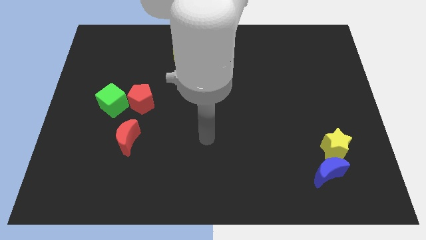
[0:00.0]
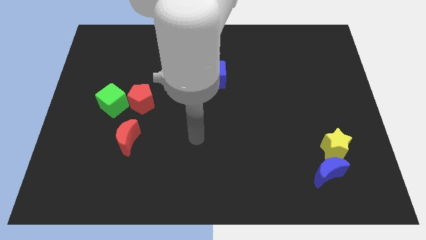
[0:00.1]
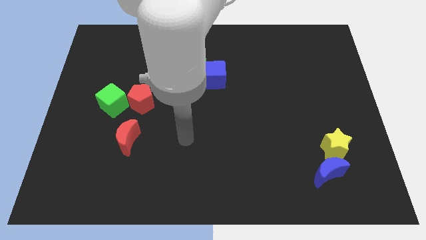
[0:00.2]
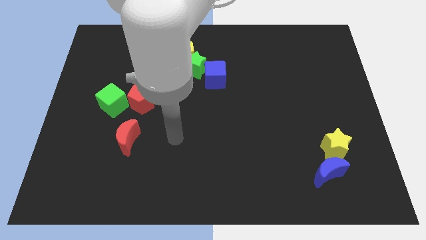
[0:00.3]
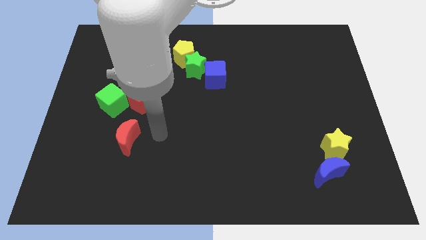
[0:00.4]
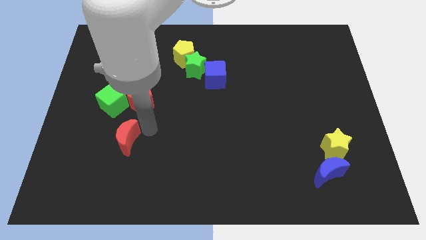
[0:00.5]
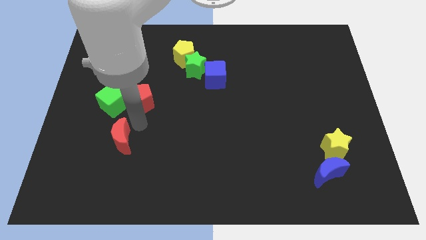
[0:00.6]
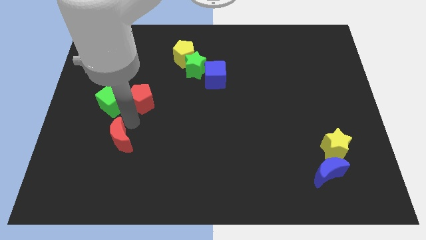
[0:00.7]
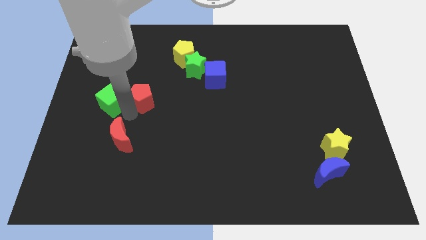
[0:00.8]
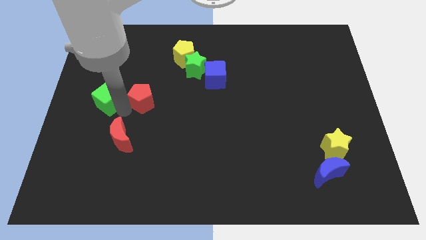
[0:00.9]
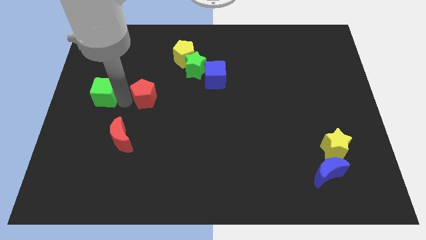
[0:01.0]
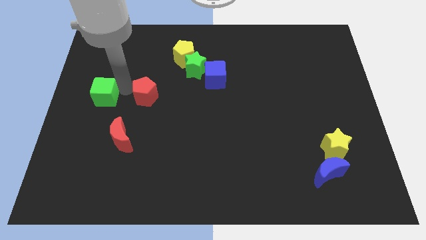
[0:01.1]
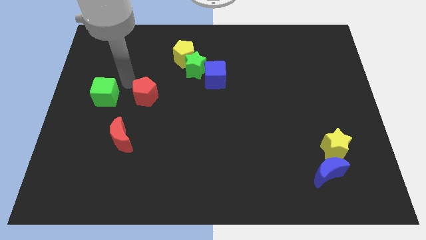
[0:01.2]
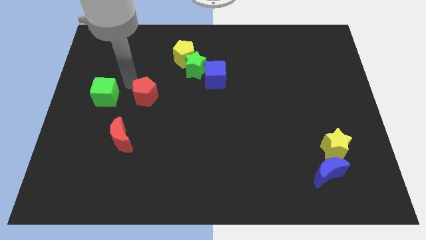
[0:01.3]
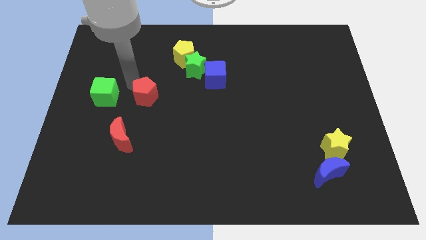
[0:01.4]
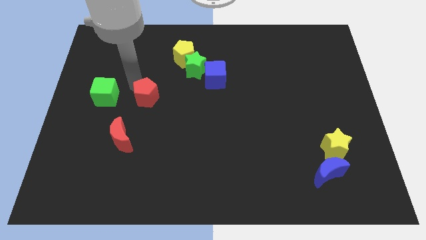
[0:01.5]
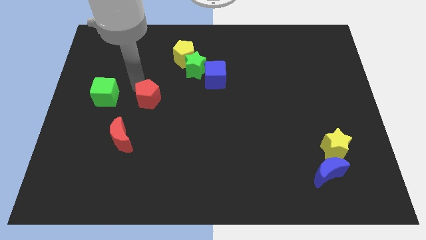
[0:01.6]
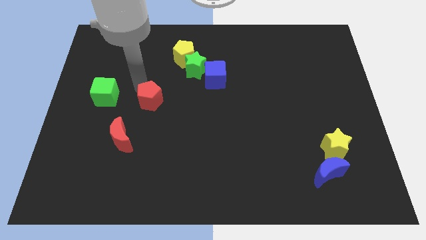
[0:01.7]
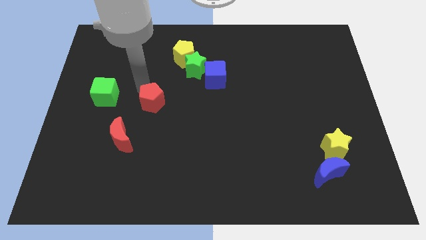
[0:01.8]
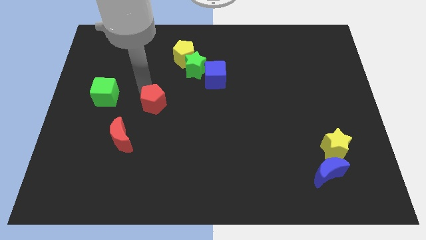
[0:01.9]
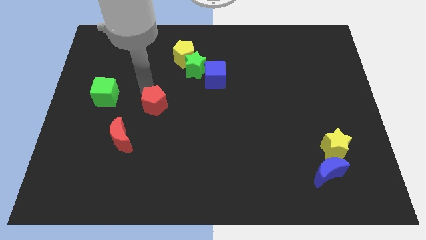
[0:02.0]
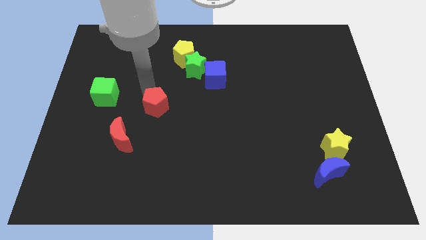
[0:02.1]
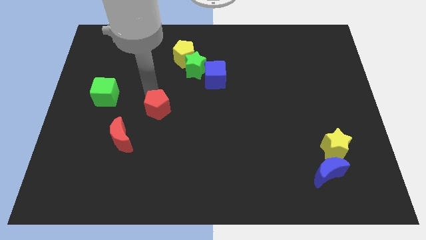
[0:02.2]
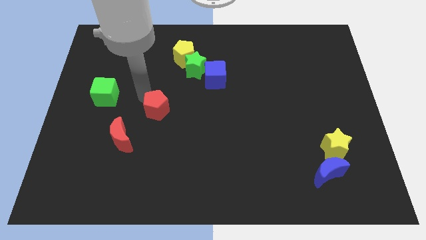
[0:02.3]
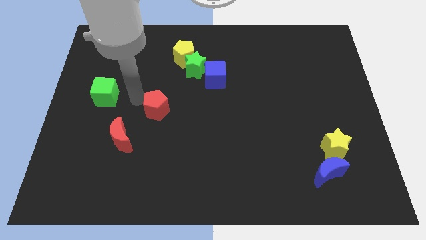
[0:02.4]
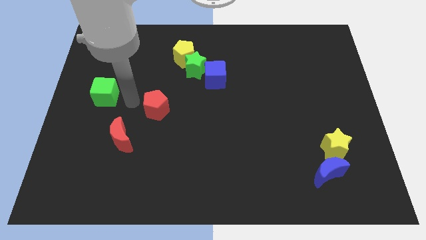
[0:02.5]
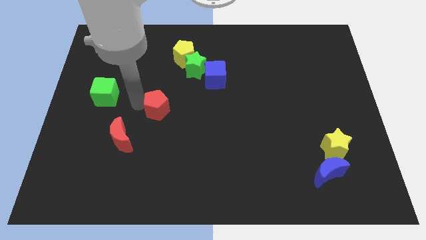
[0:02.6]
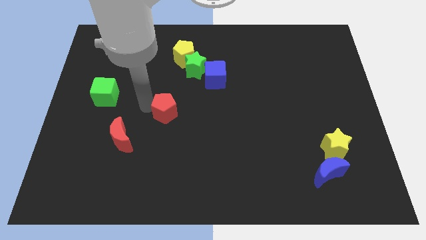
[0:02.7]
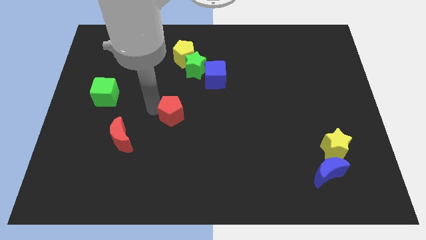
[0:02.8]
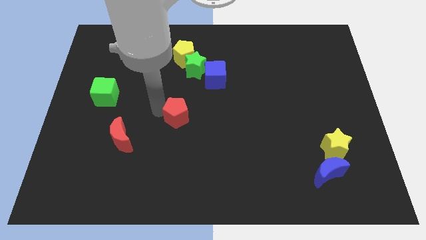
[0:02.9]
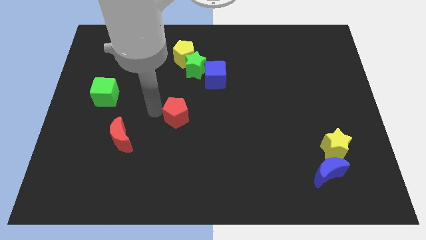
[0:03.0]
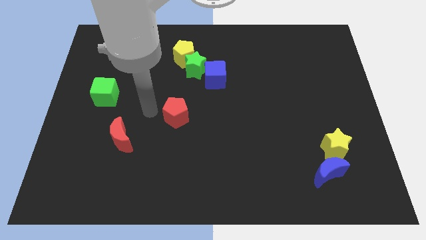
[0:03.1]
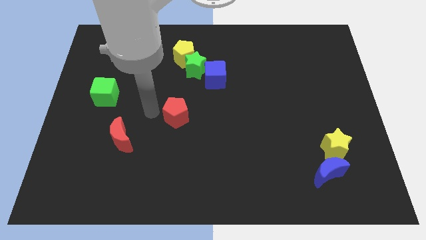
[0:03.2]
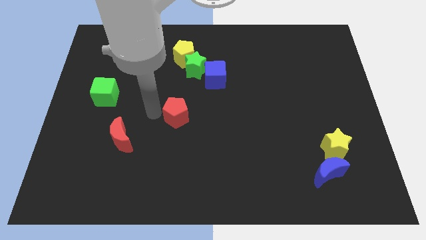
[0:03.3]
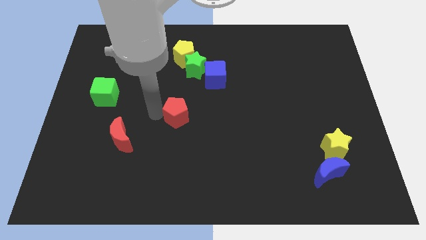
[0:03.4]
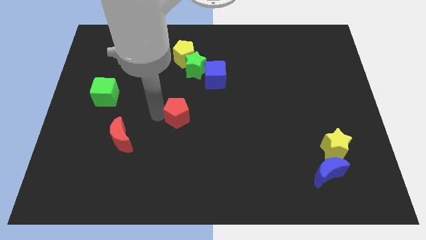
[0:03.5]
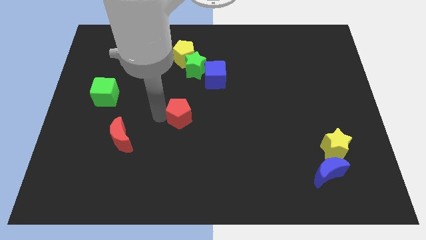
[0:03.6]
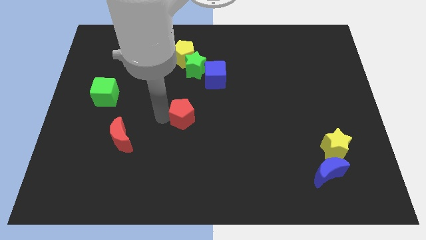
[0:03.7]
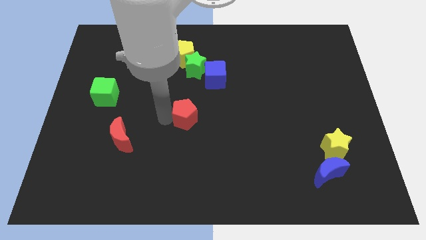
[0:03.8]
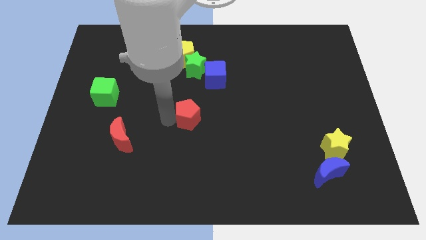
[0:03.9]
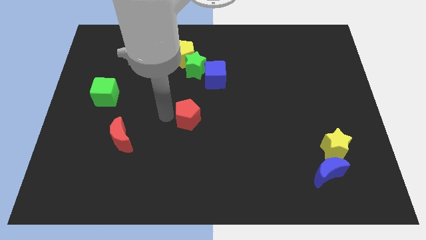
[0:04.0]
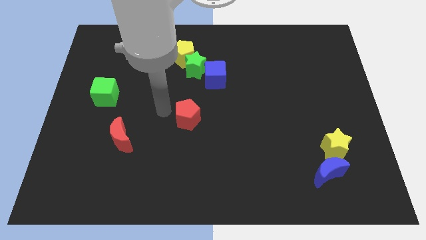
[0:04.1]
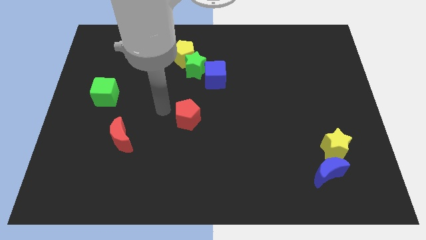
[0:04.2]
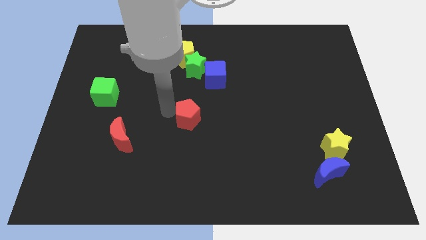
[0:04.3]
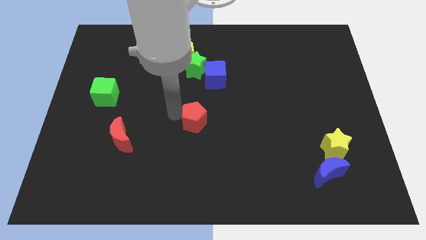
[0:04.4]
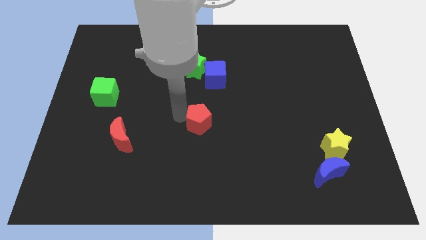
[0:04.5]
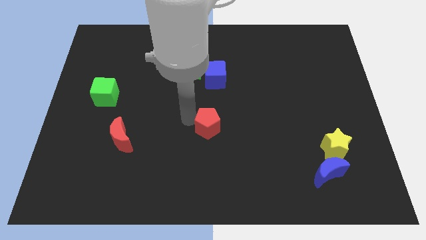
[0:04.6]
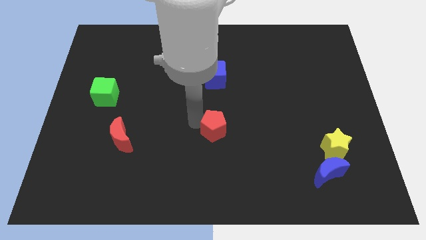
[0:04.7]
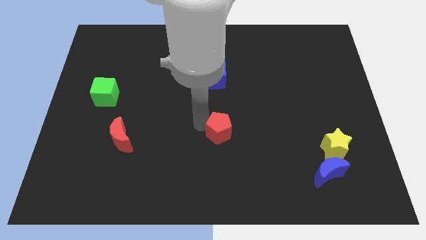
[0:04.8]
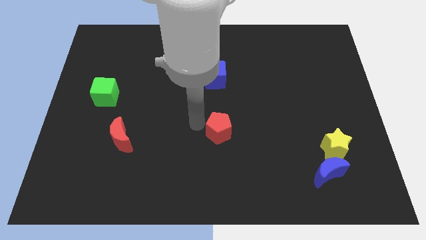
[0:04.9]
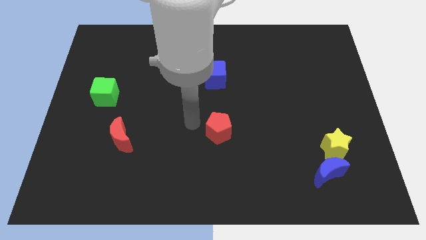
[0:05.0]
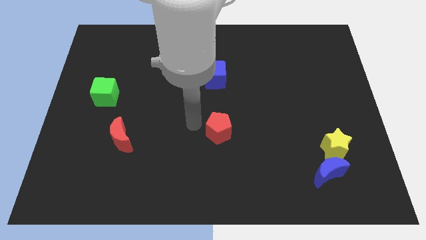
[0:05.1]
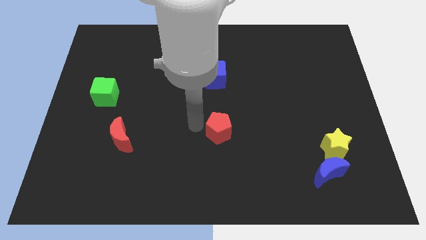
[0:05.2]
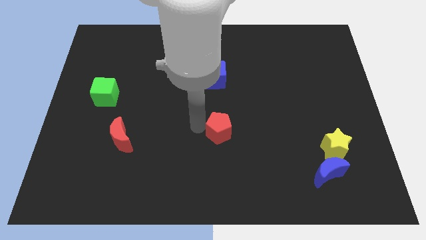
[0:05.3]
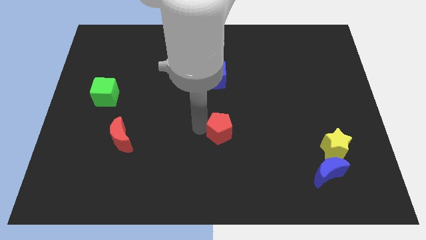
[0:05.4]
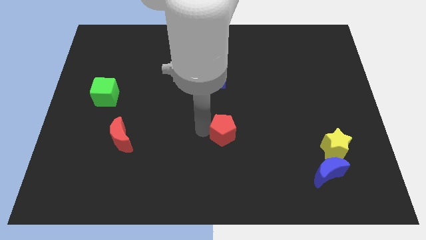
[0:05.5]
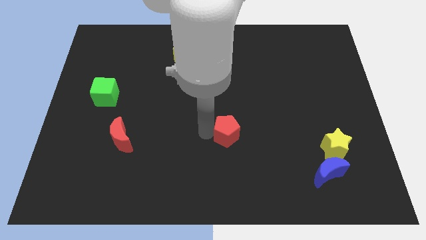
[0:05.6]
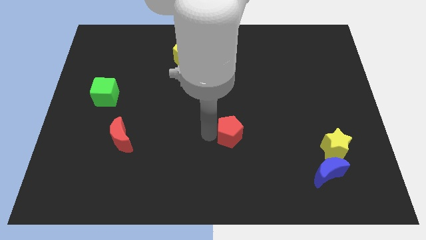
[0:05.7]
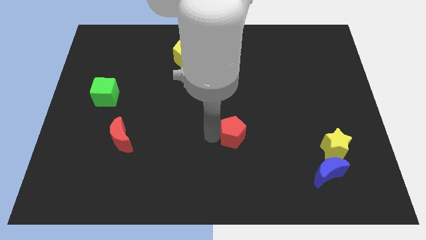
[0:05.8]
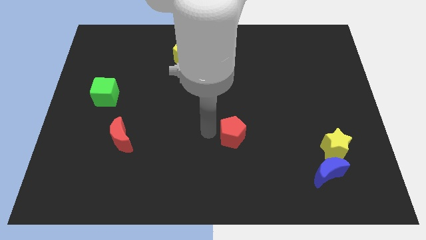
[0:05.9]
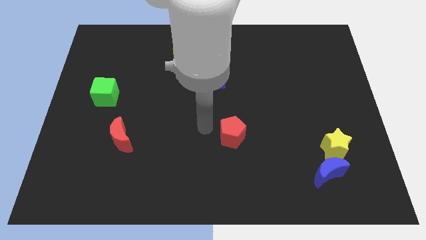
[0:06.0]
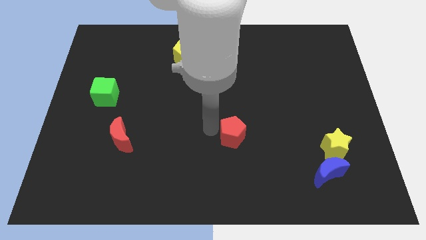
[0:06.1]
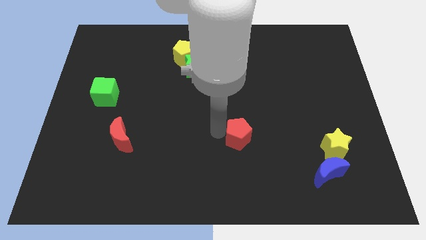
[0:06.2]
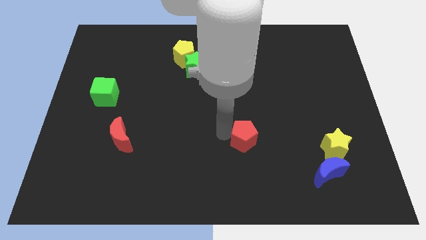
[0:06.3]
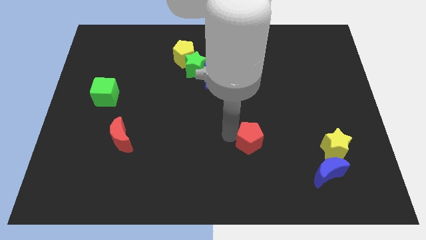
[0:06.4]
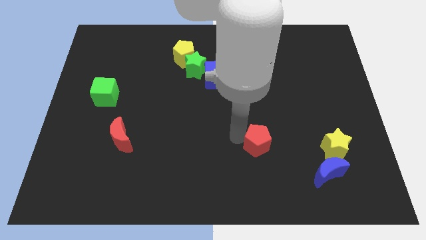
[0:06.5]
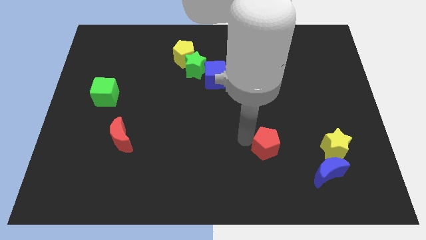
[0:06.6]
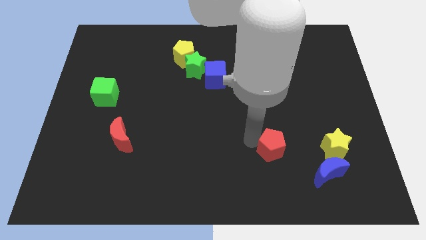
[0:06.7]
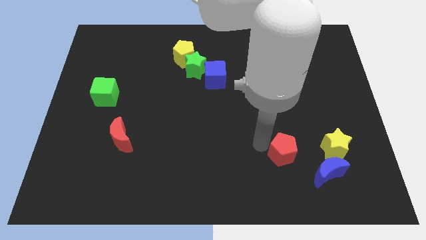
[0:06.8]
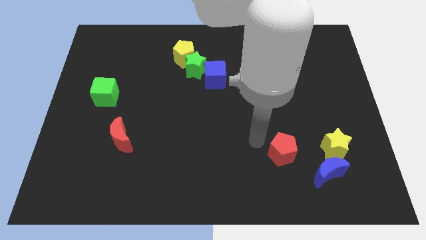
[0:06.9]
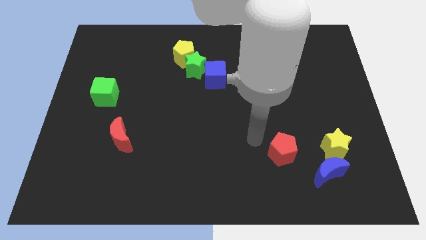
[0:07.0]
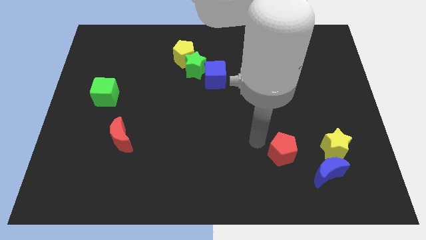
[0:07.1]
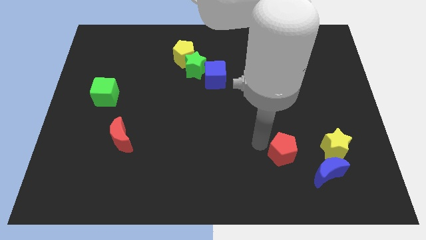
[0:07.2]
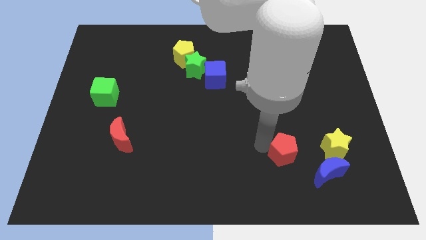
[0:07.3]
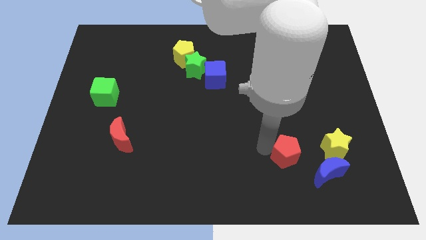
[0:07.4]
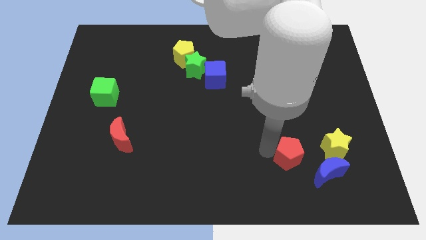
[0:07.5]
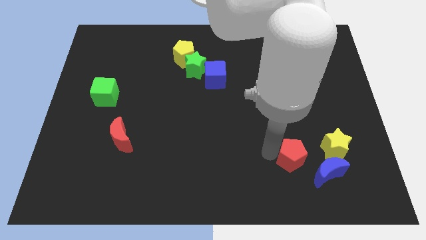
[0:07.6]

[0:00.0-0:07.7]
slide the red pentagon to the bottom left side of the yellow star

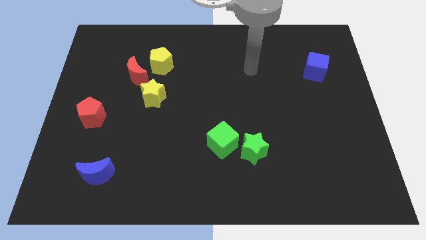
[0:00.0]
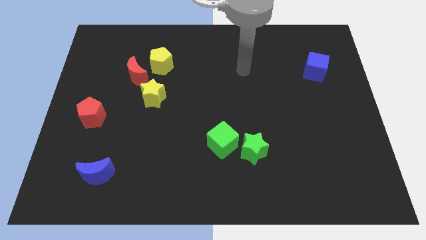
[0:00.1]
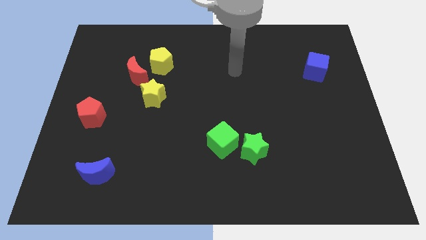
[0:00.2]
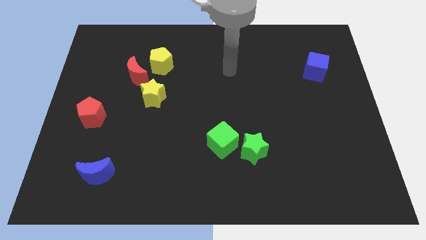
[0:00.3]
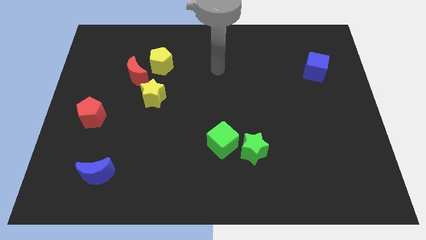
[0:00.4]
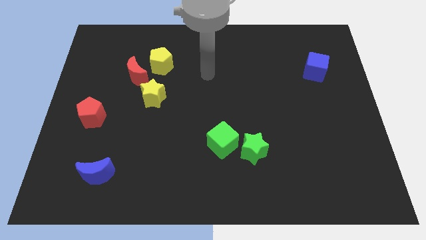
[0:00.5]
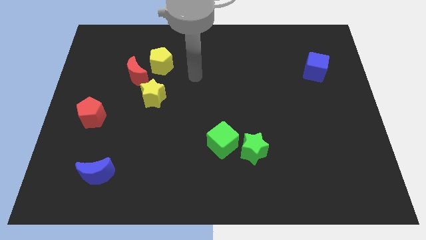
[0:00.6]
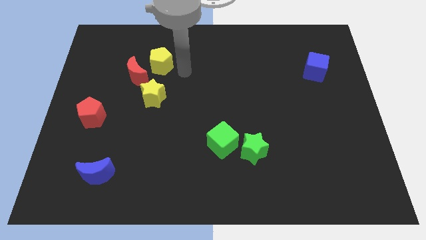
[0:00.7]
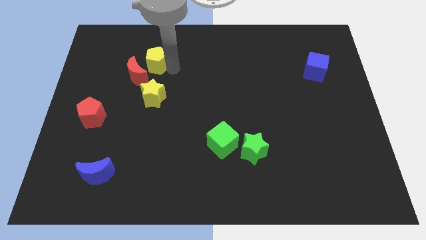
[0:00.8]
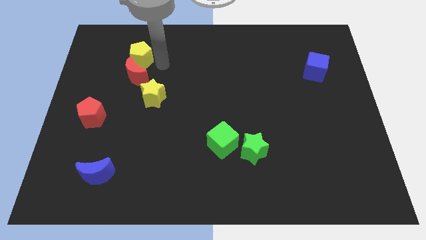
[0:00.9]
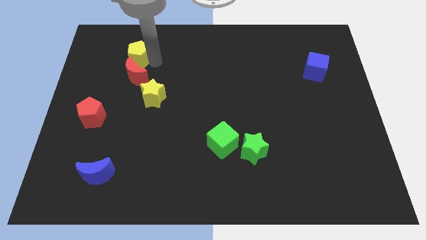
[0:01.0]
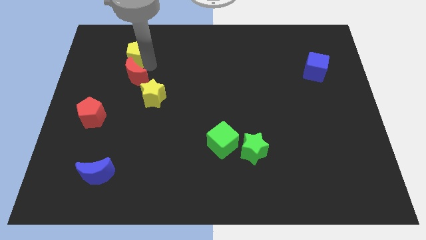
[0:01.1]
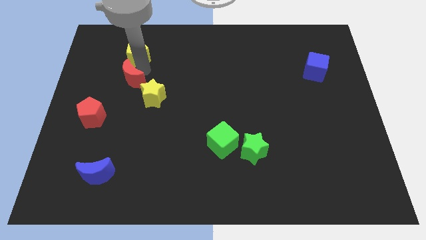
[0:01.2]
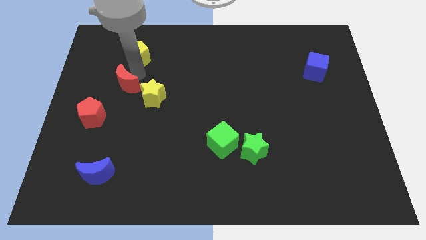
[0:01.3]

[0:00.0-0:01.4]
move the red moon to the left of the yellow star
